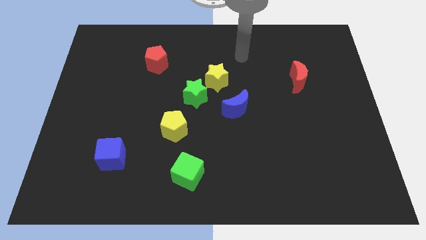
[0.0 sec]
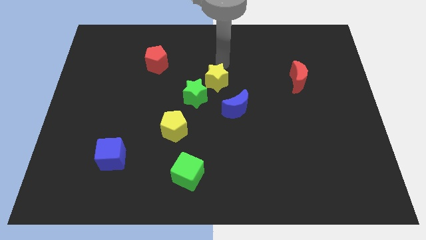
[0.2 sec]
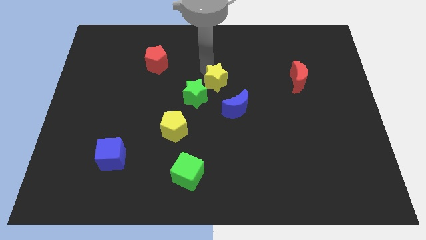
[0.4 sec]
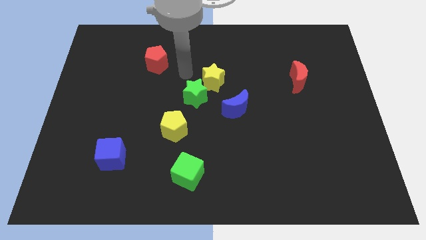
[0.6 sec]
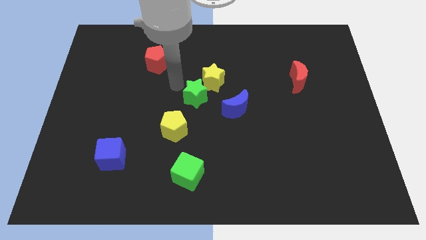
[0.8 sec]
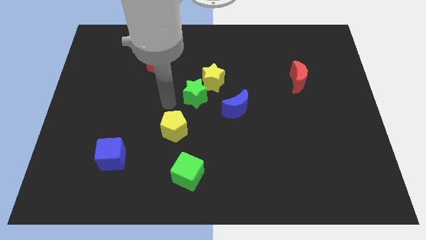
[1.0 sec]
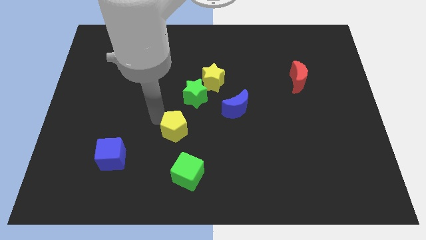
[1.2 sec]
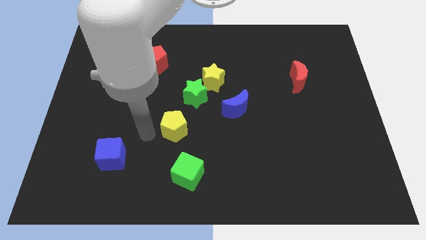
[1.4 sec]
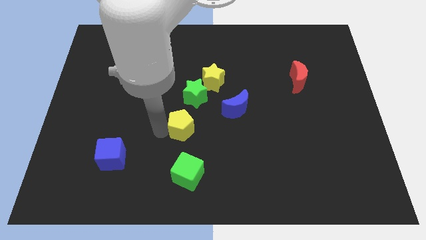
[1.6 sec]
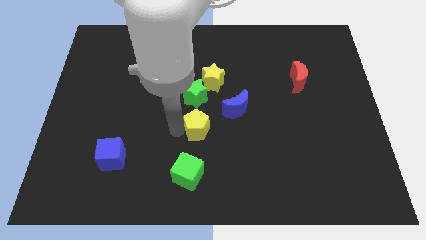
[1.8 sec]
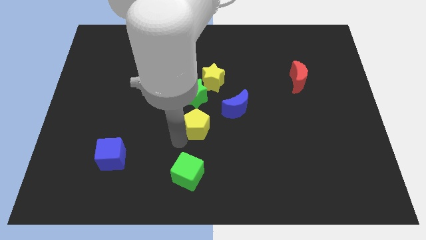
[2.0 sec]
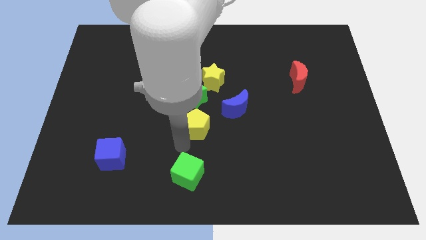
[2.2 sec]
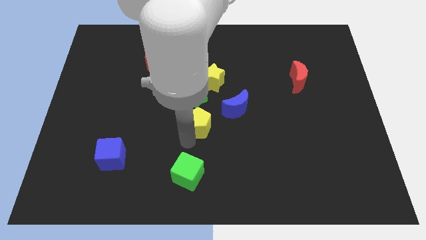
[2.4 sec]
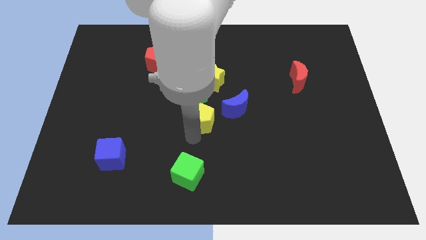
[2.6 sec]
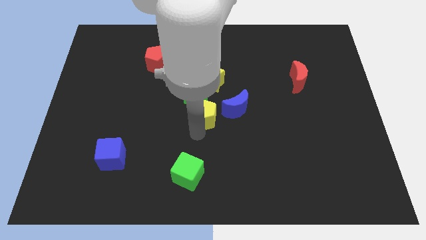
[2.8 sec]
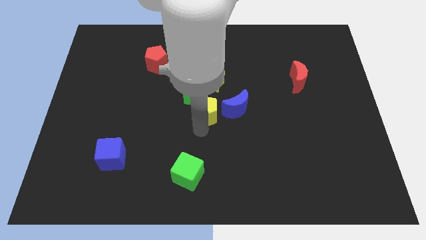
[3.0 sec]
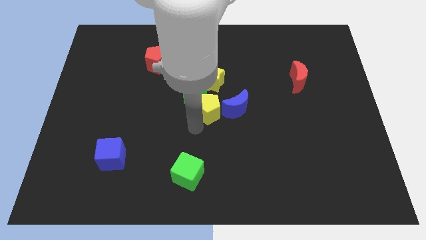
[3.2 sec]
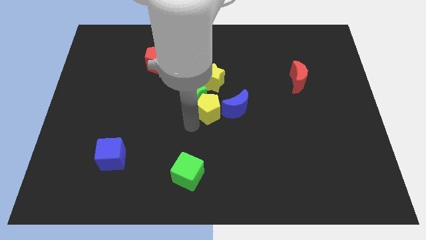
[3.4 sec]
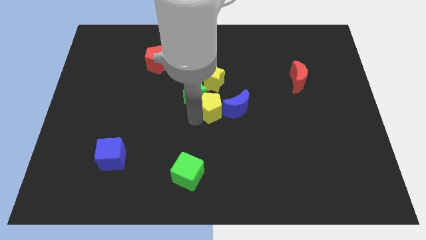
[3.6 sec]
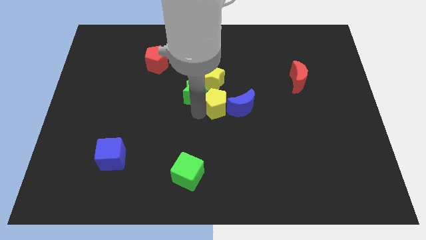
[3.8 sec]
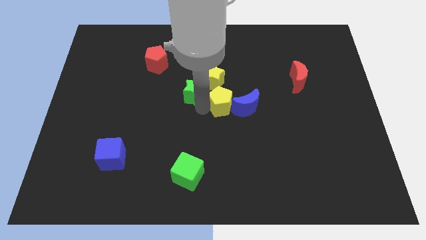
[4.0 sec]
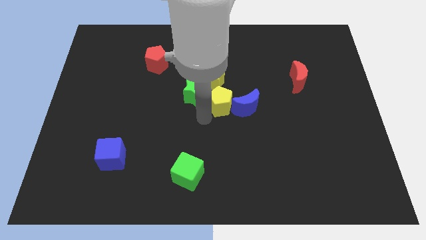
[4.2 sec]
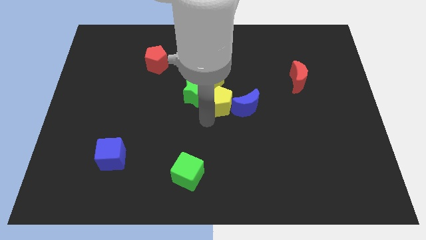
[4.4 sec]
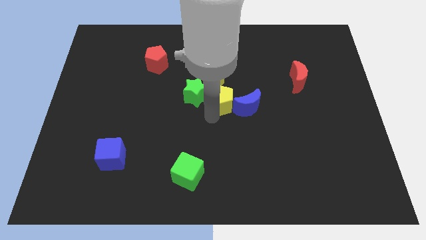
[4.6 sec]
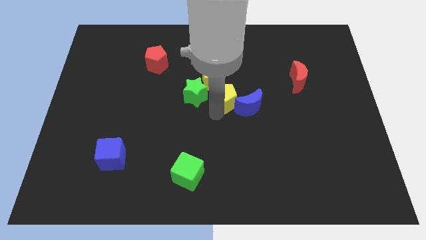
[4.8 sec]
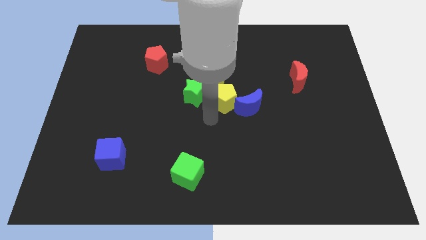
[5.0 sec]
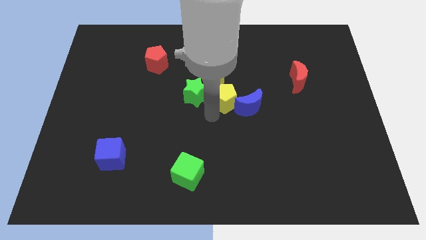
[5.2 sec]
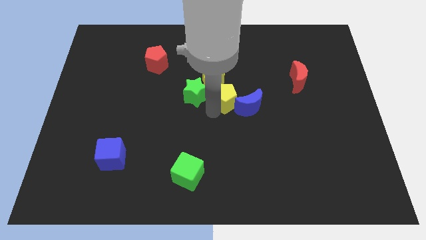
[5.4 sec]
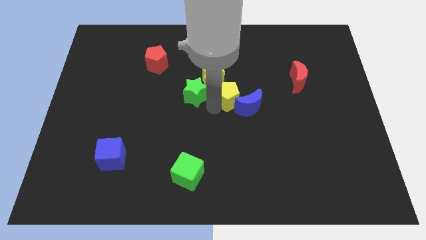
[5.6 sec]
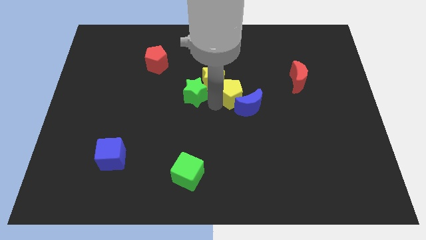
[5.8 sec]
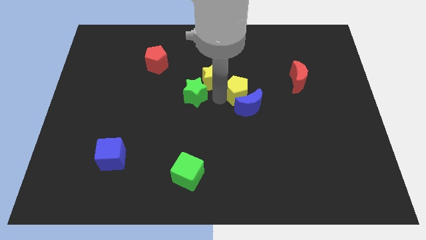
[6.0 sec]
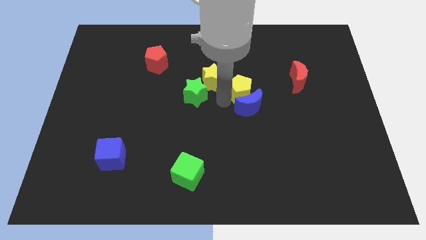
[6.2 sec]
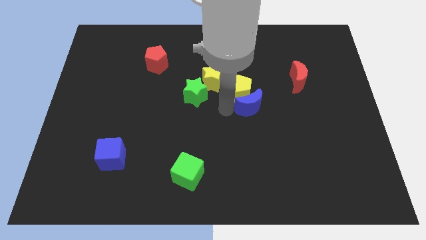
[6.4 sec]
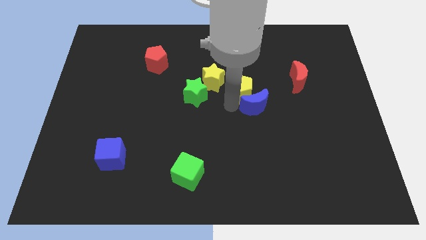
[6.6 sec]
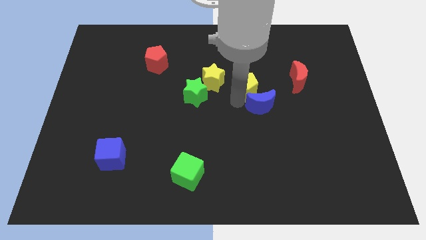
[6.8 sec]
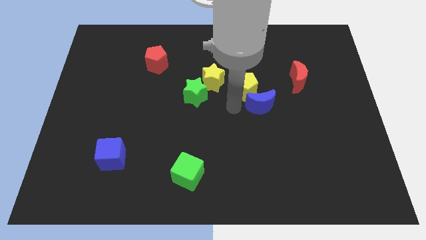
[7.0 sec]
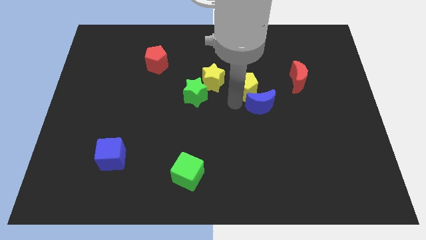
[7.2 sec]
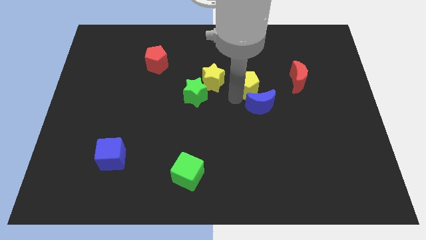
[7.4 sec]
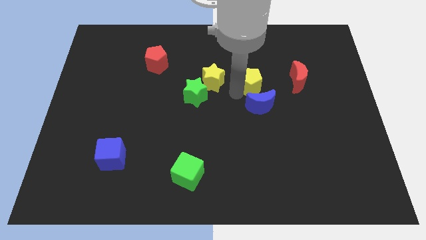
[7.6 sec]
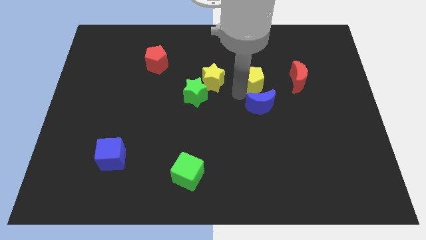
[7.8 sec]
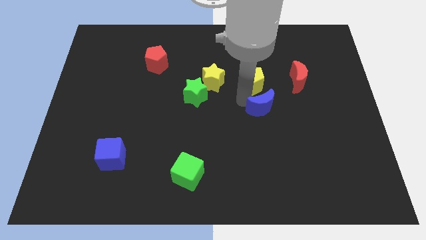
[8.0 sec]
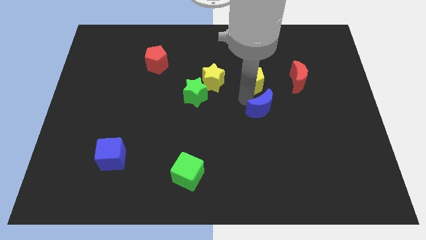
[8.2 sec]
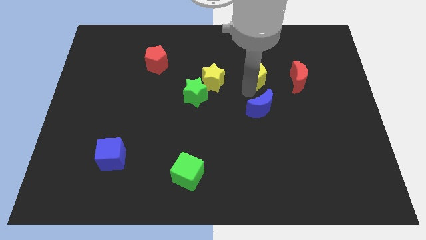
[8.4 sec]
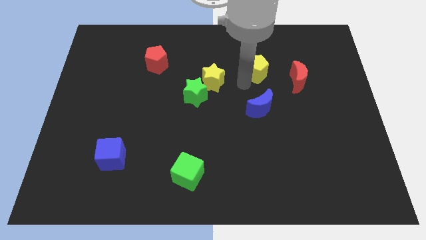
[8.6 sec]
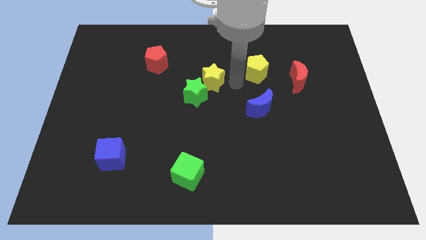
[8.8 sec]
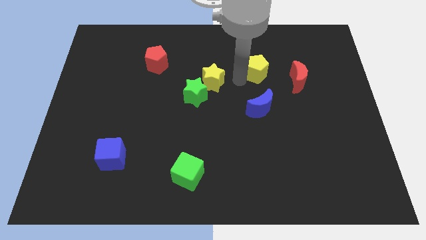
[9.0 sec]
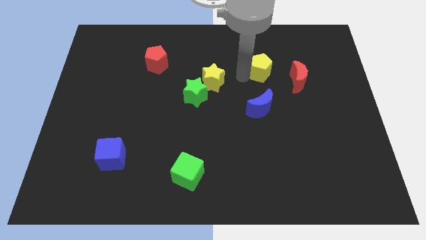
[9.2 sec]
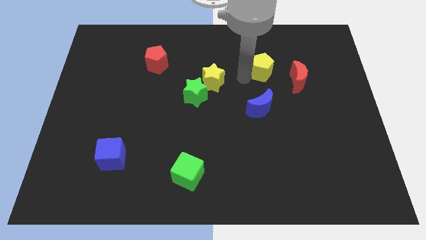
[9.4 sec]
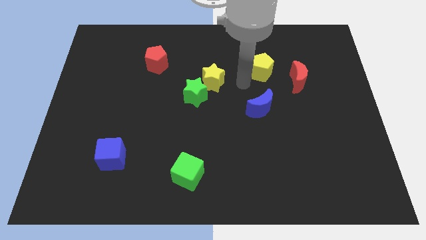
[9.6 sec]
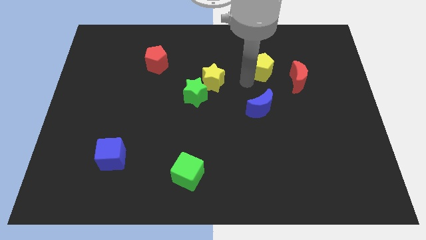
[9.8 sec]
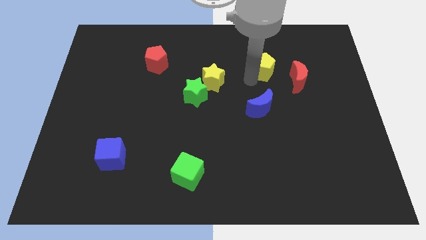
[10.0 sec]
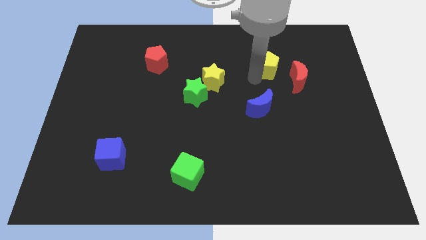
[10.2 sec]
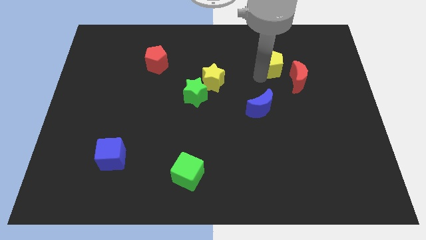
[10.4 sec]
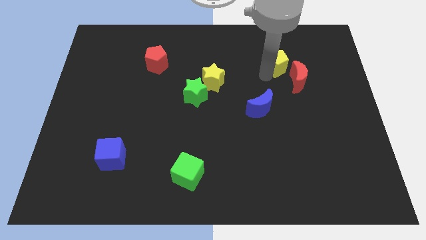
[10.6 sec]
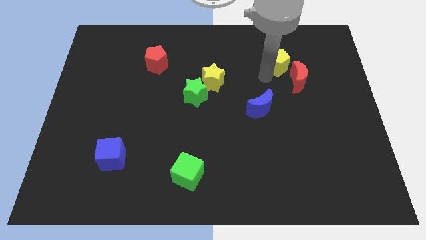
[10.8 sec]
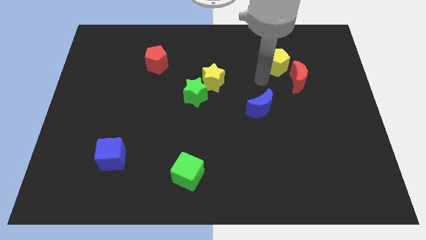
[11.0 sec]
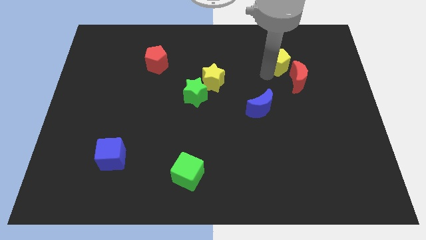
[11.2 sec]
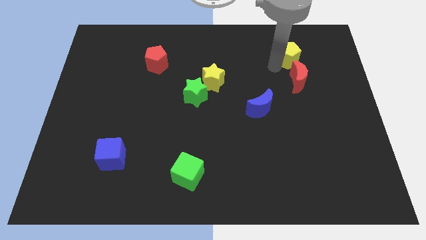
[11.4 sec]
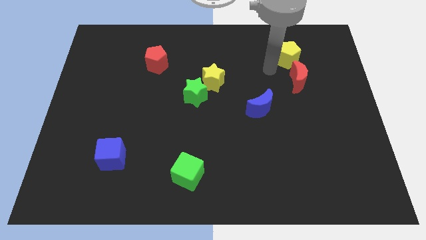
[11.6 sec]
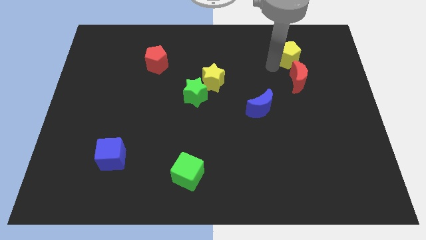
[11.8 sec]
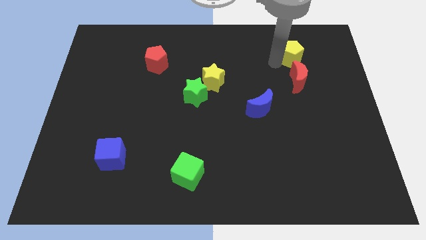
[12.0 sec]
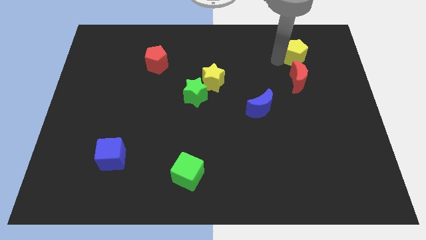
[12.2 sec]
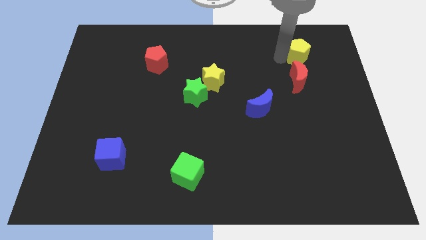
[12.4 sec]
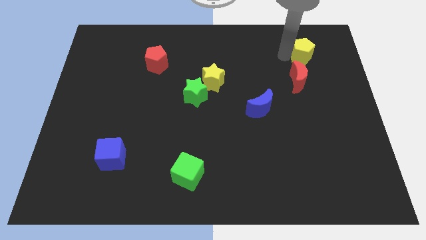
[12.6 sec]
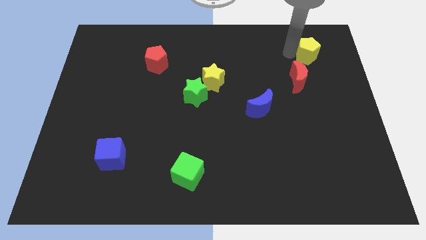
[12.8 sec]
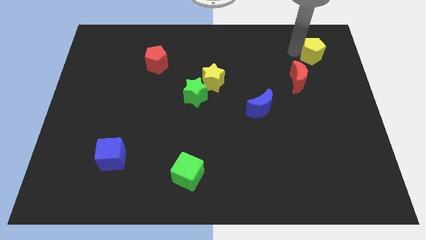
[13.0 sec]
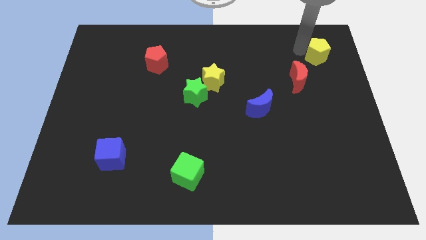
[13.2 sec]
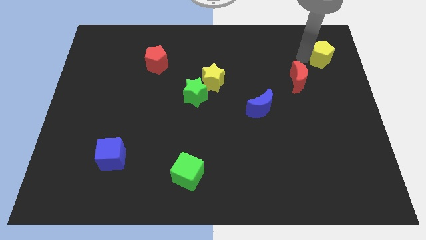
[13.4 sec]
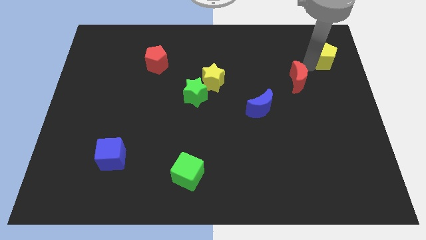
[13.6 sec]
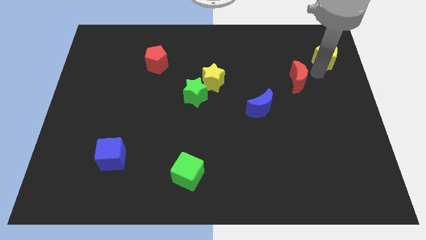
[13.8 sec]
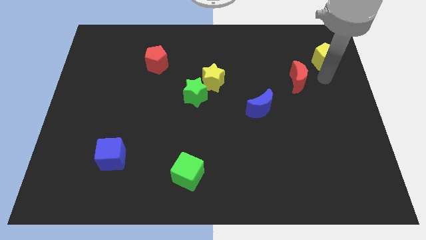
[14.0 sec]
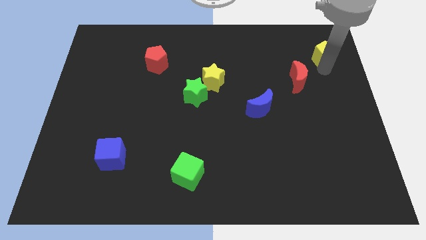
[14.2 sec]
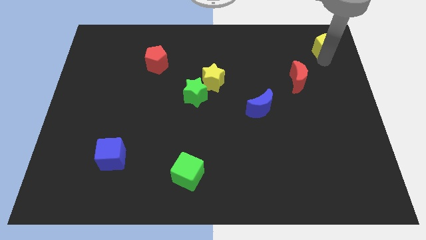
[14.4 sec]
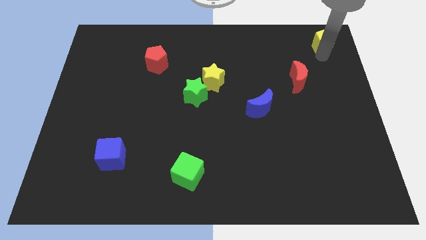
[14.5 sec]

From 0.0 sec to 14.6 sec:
put the yellow pentagon to the top right of the board
